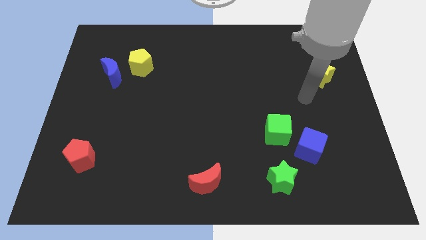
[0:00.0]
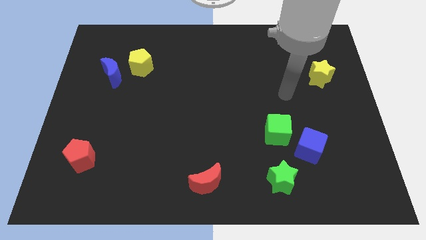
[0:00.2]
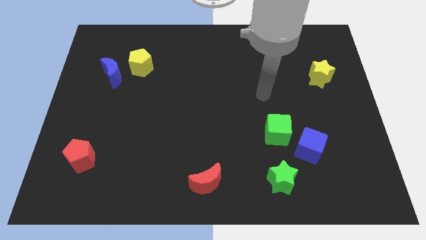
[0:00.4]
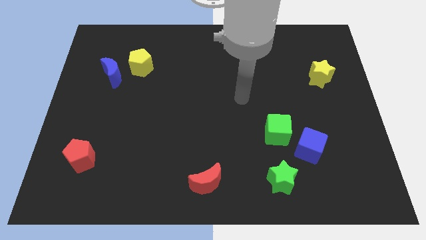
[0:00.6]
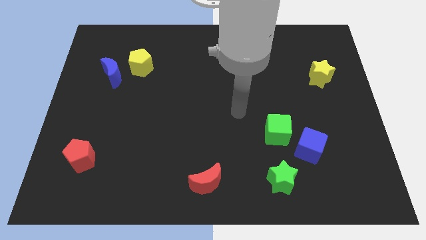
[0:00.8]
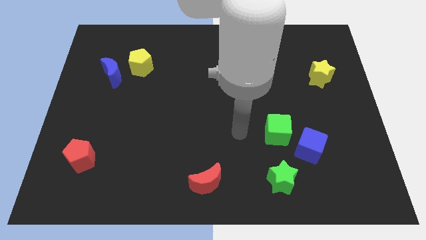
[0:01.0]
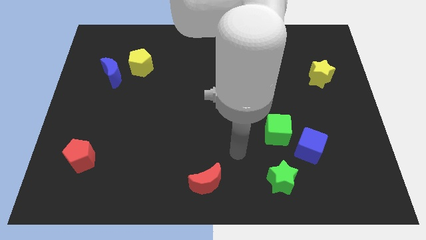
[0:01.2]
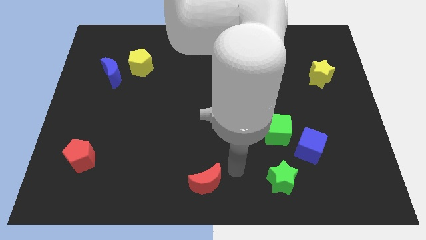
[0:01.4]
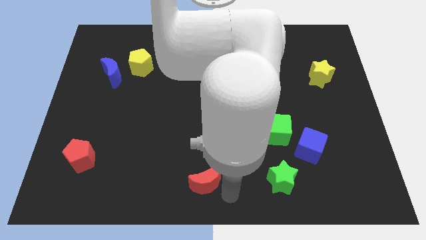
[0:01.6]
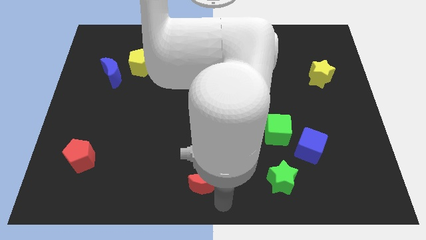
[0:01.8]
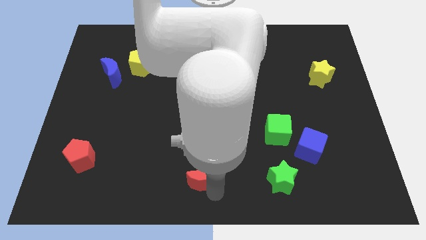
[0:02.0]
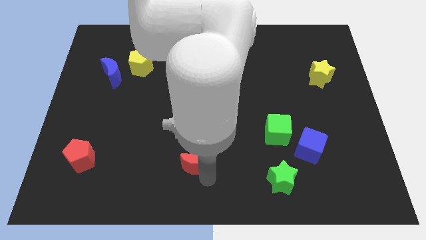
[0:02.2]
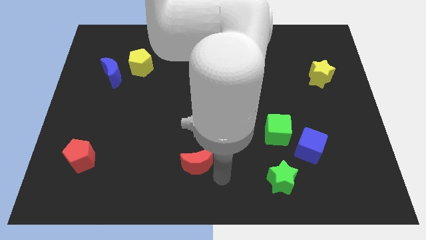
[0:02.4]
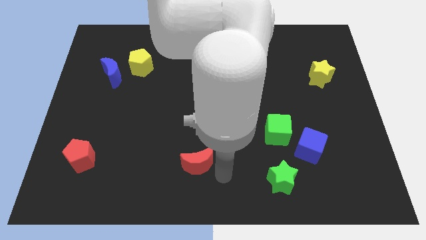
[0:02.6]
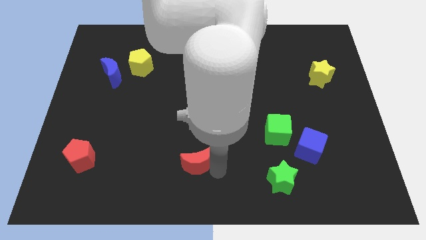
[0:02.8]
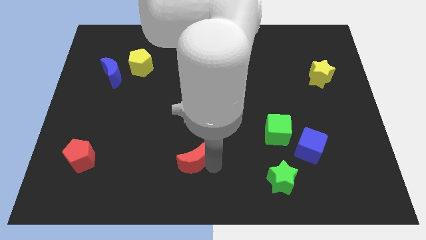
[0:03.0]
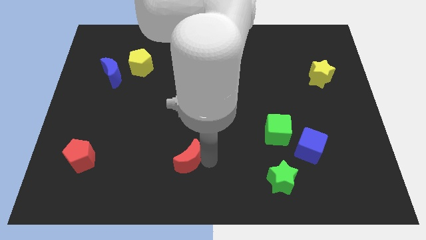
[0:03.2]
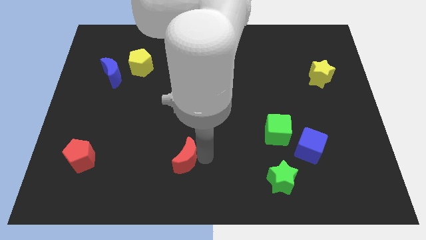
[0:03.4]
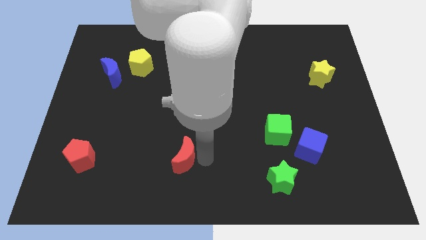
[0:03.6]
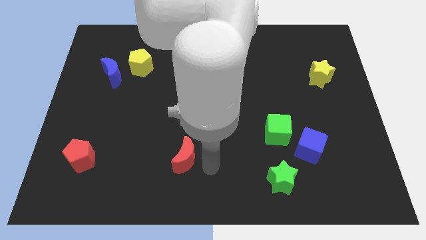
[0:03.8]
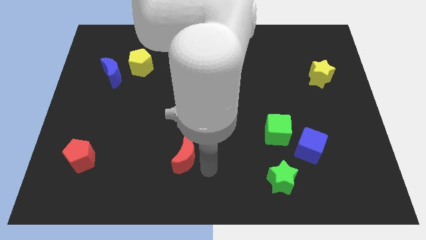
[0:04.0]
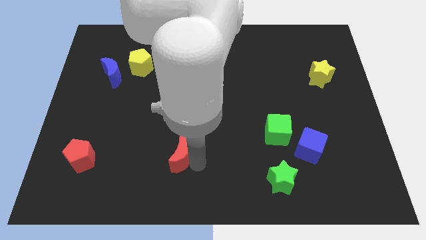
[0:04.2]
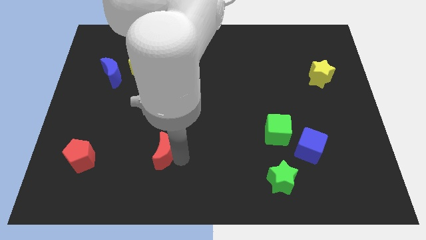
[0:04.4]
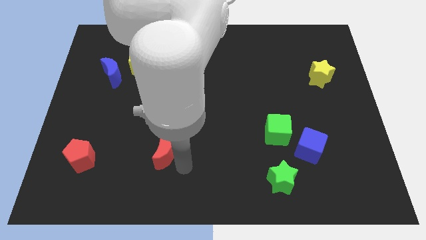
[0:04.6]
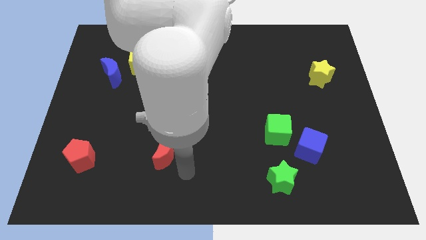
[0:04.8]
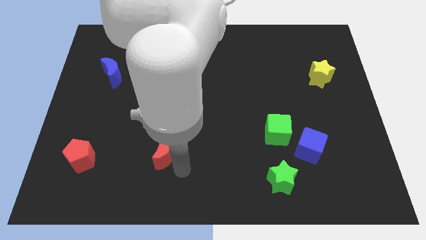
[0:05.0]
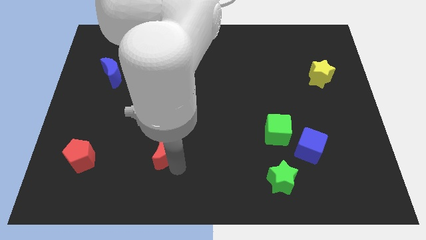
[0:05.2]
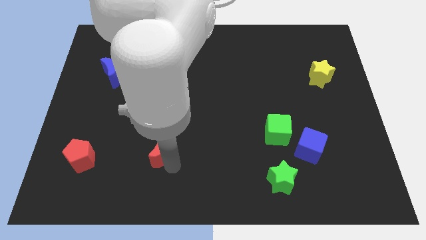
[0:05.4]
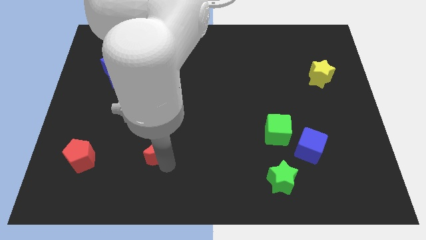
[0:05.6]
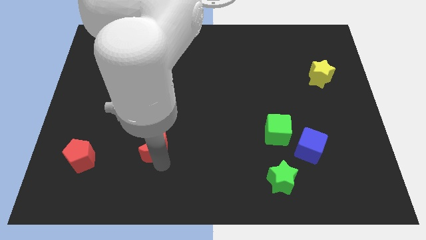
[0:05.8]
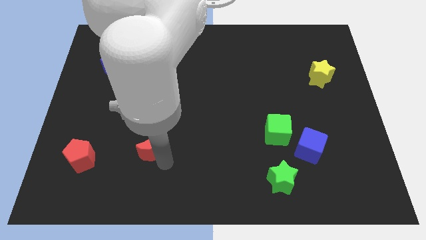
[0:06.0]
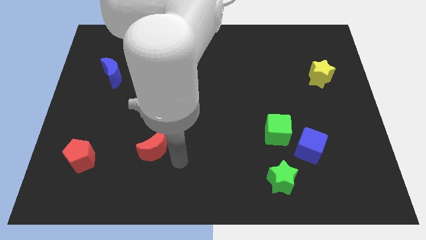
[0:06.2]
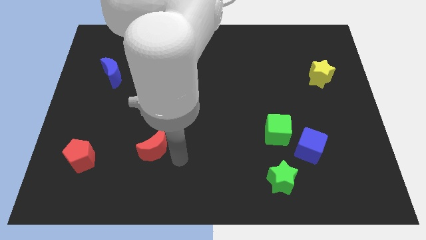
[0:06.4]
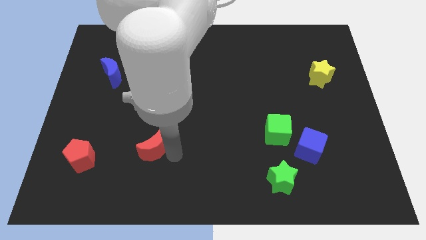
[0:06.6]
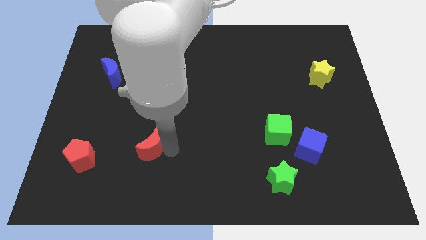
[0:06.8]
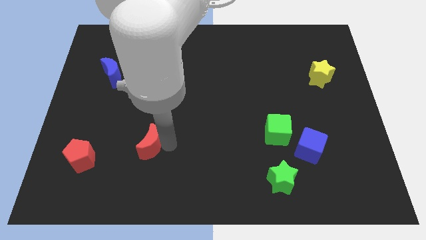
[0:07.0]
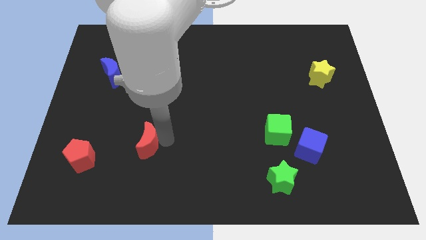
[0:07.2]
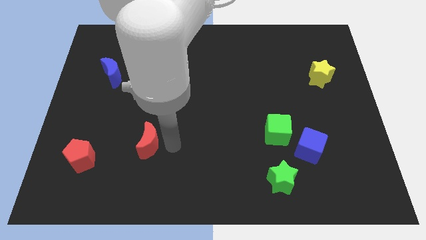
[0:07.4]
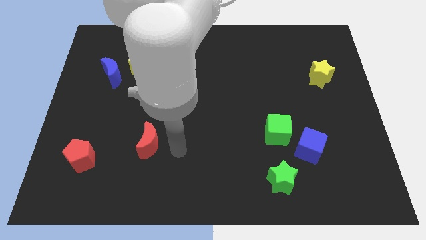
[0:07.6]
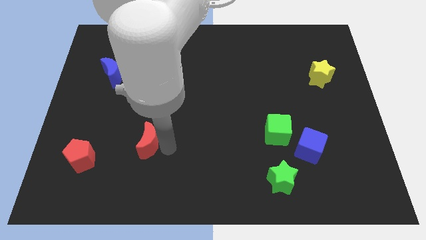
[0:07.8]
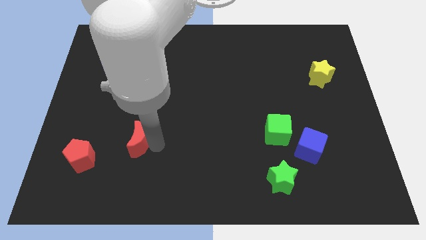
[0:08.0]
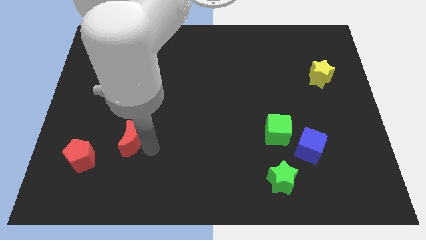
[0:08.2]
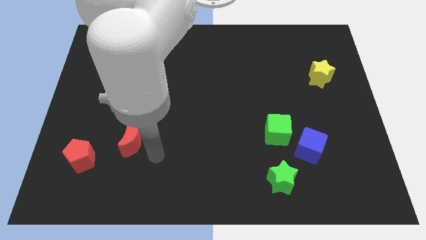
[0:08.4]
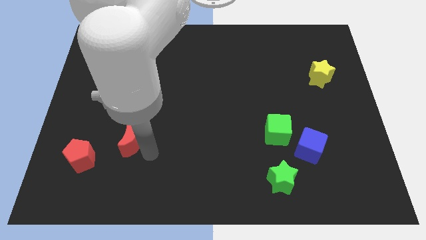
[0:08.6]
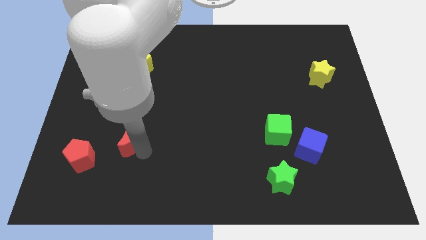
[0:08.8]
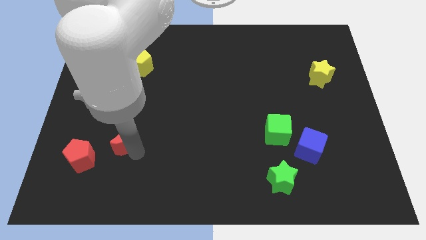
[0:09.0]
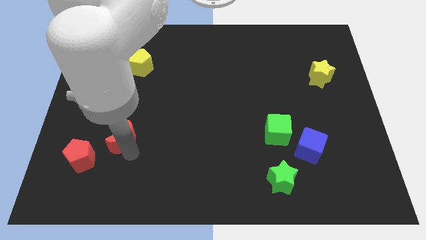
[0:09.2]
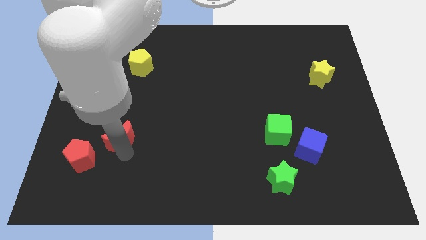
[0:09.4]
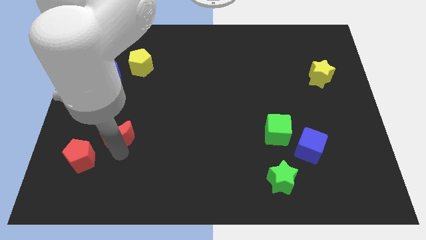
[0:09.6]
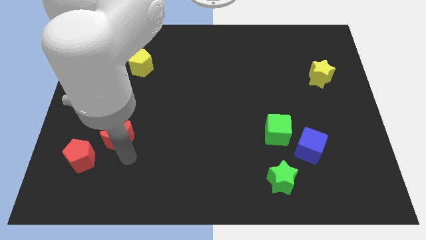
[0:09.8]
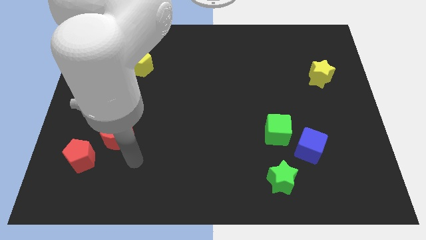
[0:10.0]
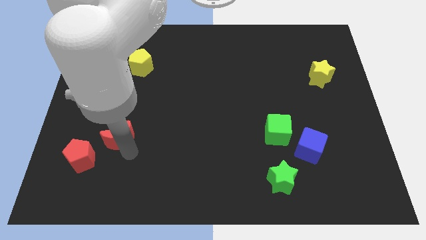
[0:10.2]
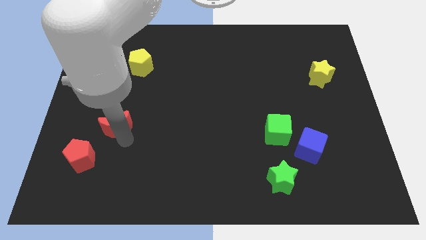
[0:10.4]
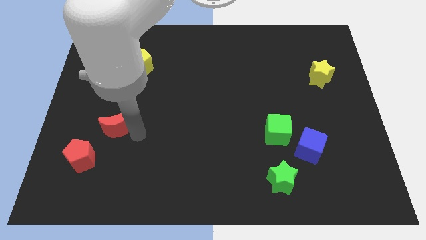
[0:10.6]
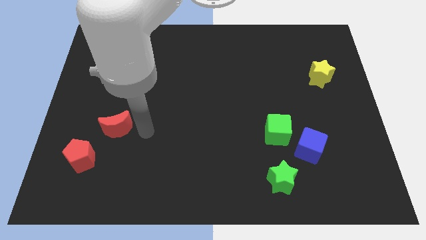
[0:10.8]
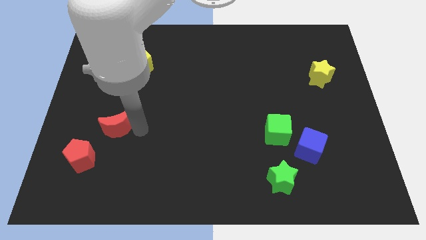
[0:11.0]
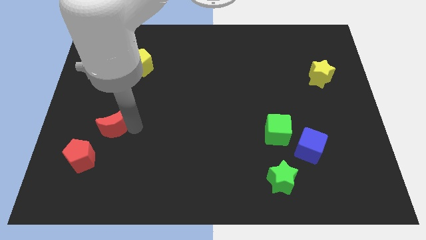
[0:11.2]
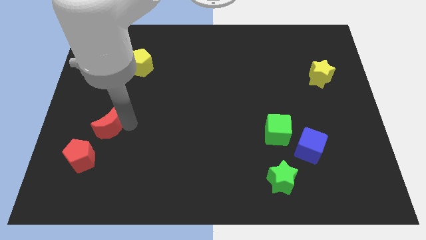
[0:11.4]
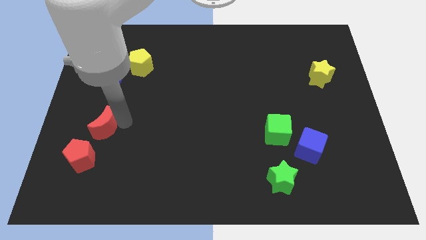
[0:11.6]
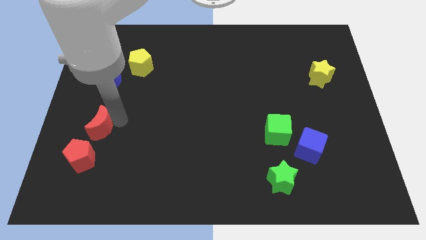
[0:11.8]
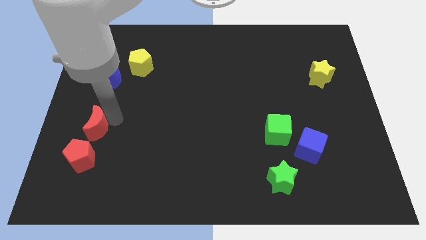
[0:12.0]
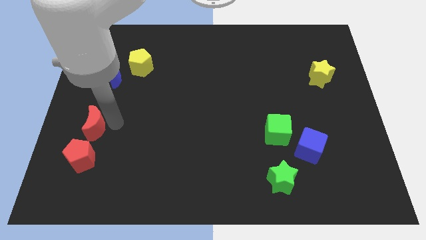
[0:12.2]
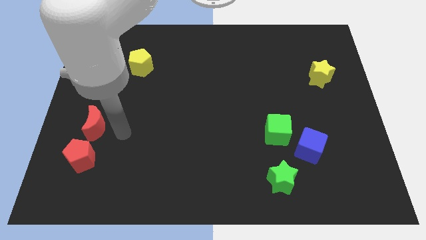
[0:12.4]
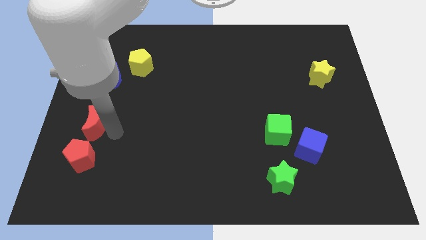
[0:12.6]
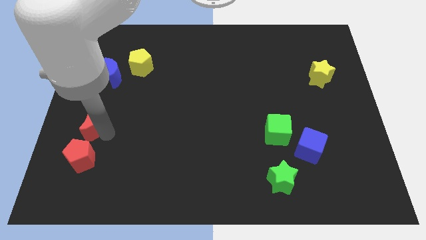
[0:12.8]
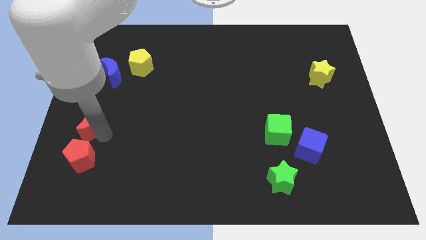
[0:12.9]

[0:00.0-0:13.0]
put the red moon to the center left
